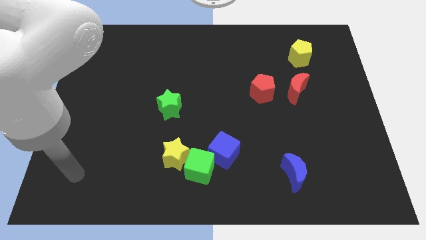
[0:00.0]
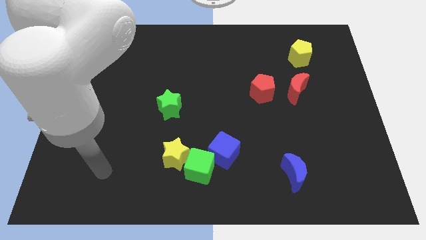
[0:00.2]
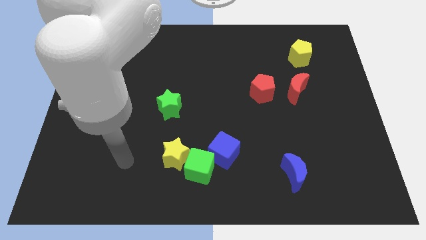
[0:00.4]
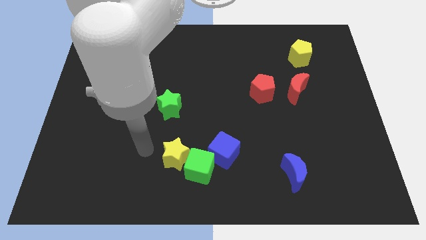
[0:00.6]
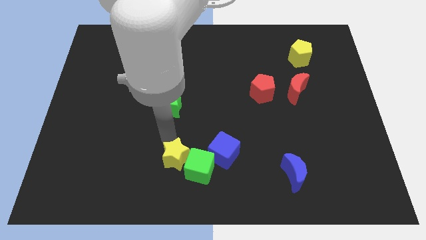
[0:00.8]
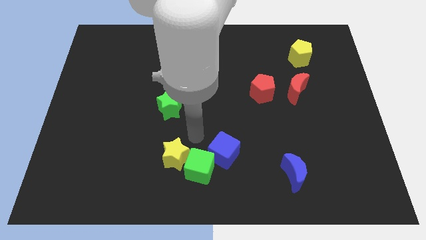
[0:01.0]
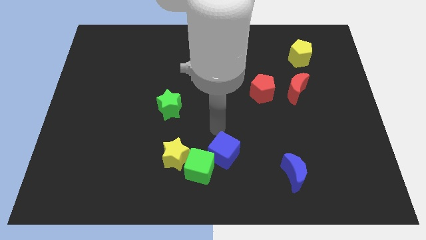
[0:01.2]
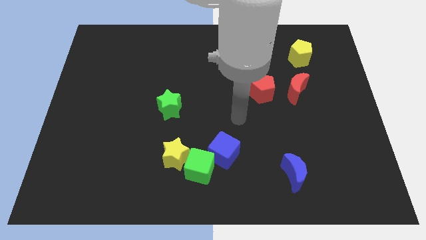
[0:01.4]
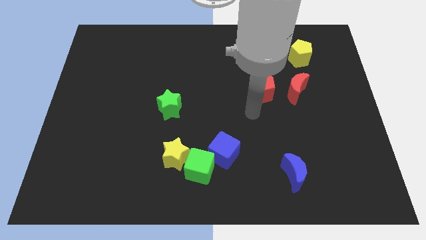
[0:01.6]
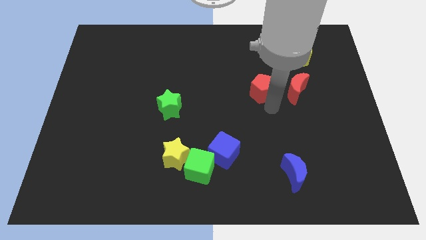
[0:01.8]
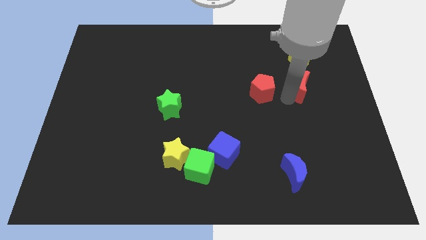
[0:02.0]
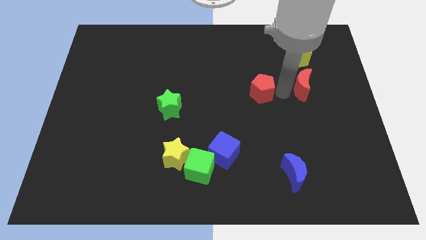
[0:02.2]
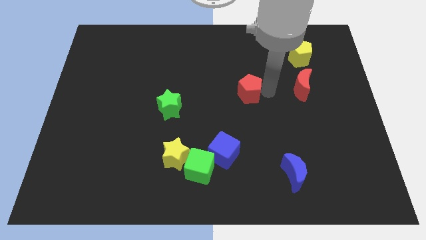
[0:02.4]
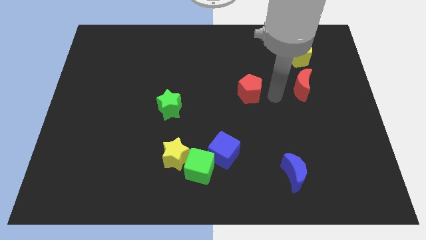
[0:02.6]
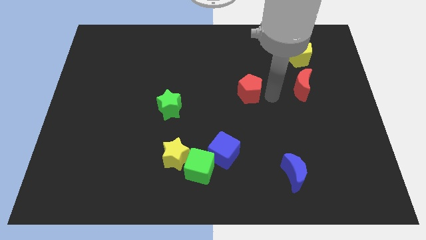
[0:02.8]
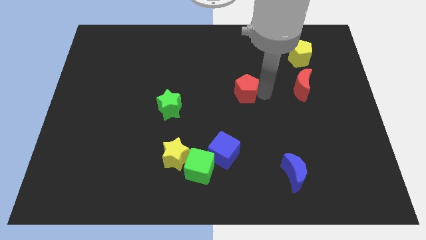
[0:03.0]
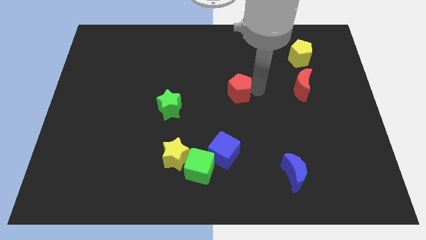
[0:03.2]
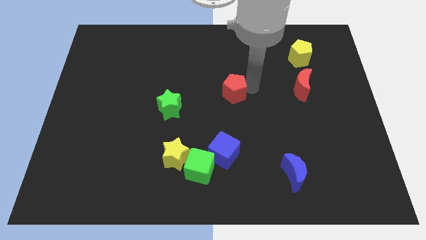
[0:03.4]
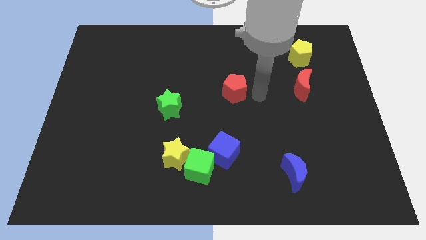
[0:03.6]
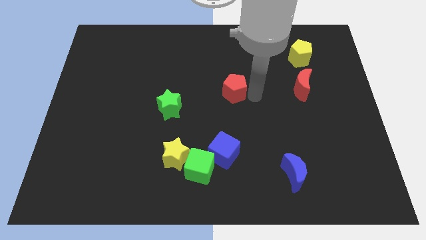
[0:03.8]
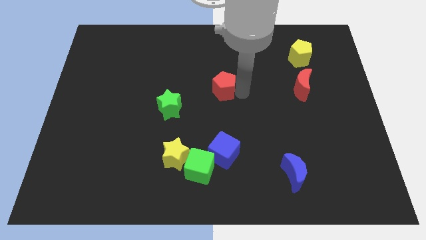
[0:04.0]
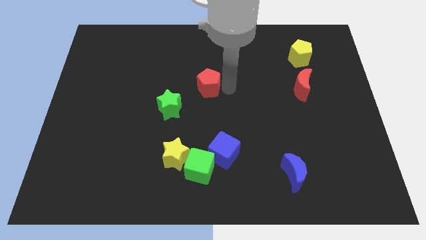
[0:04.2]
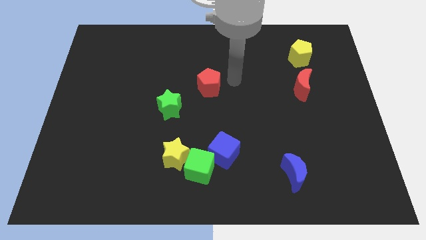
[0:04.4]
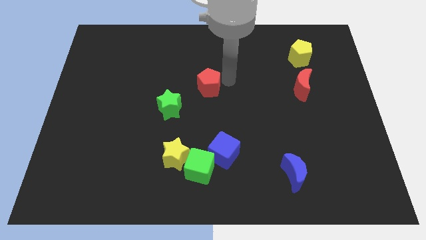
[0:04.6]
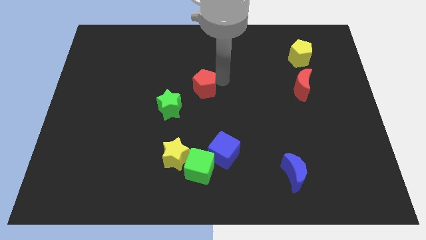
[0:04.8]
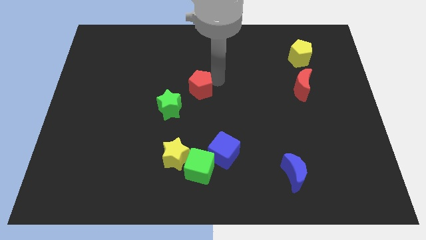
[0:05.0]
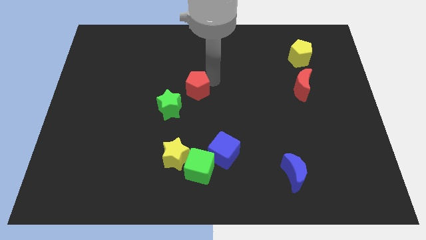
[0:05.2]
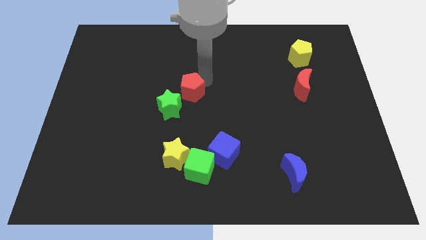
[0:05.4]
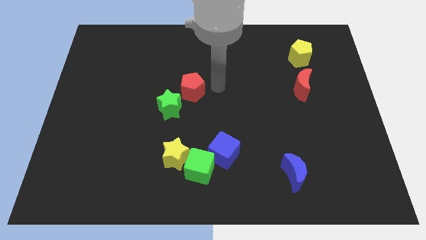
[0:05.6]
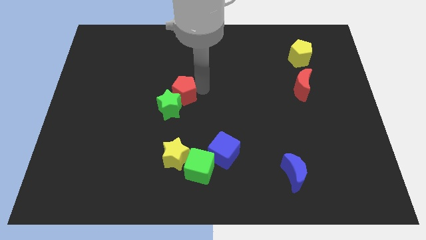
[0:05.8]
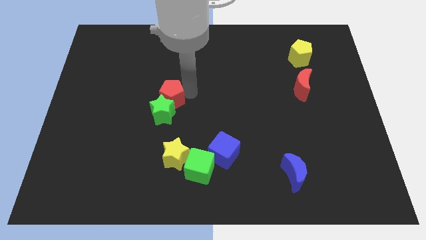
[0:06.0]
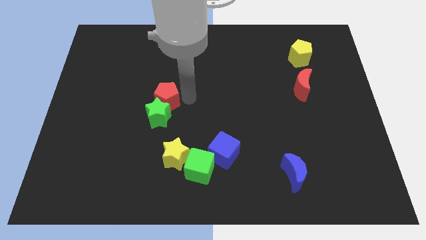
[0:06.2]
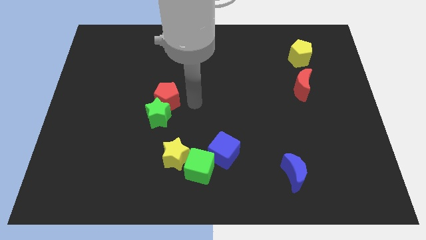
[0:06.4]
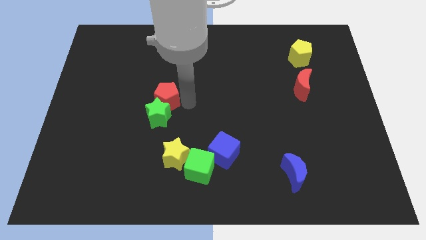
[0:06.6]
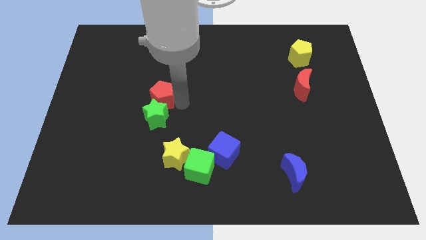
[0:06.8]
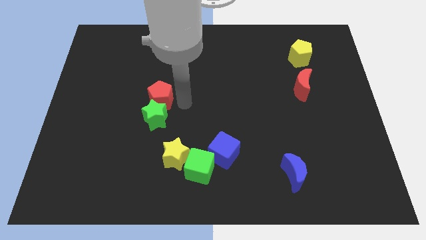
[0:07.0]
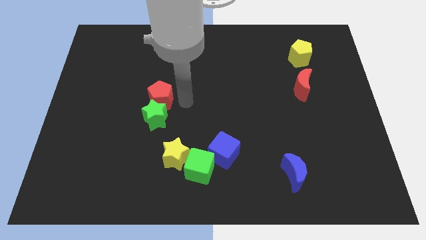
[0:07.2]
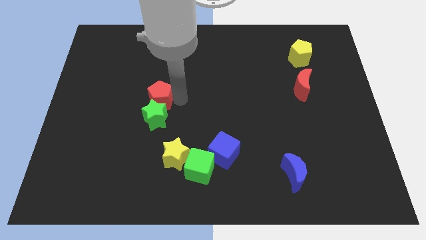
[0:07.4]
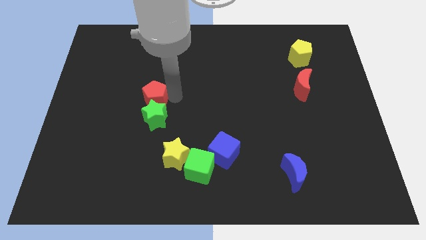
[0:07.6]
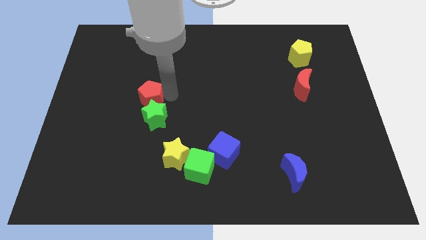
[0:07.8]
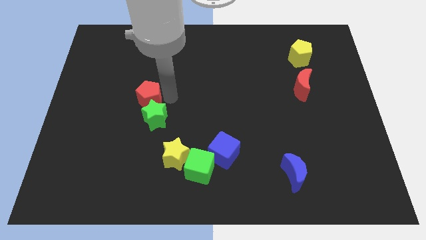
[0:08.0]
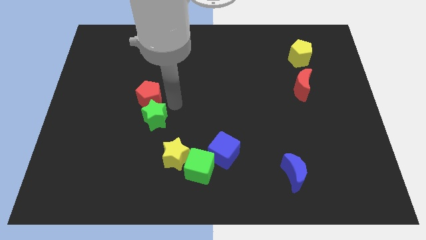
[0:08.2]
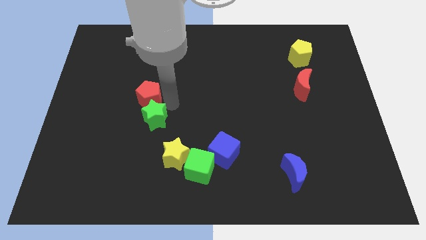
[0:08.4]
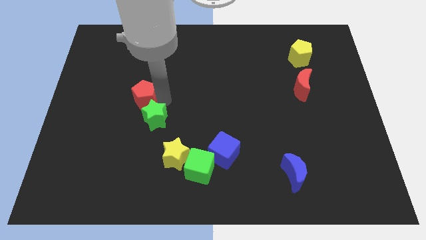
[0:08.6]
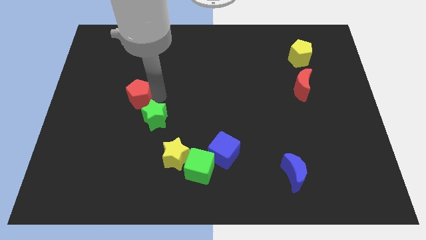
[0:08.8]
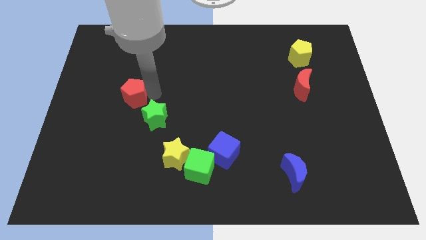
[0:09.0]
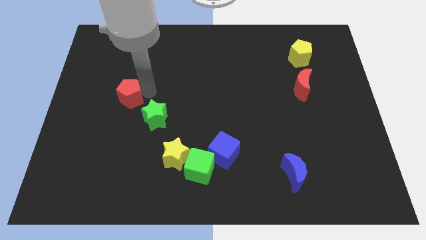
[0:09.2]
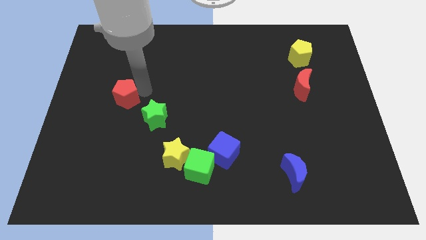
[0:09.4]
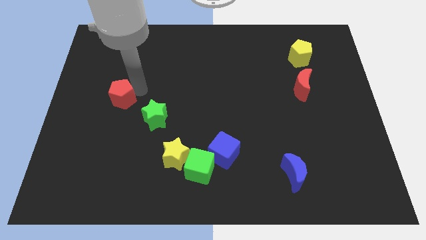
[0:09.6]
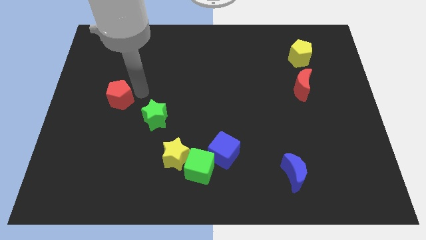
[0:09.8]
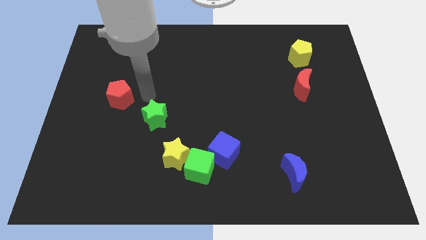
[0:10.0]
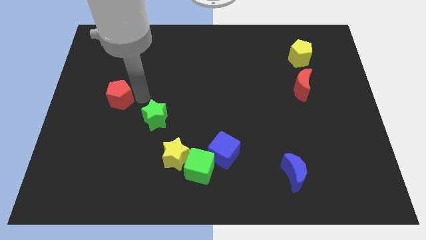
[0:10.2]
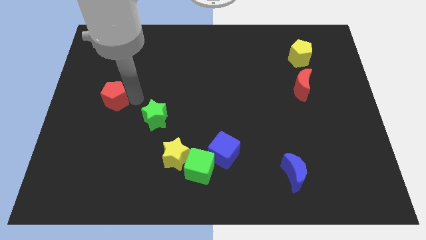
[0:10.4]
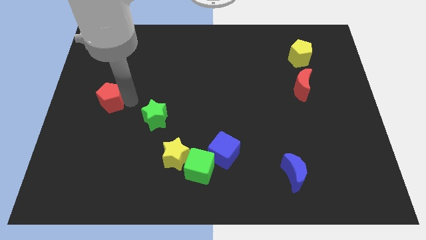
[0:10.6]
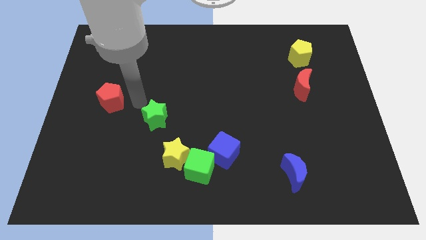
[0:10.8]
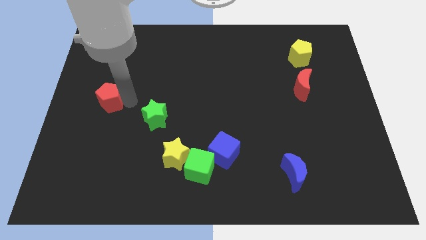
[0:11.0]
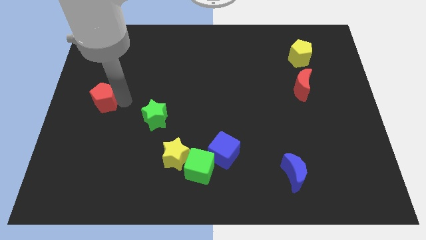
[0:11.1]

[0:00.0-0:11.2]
move the red pentagon to the center left
